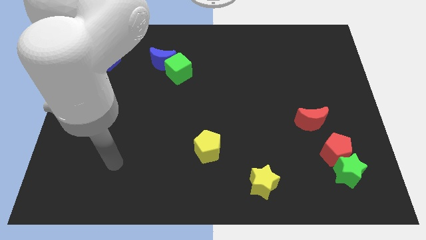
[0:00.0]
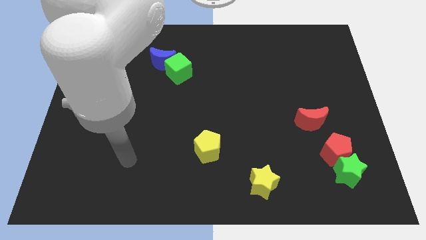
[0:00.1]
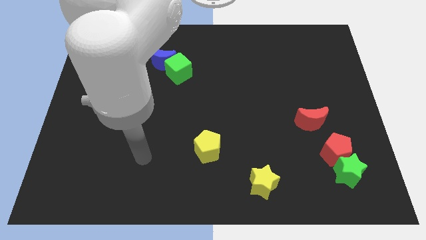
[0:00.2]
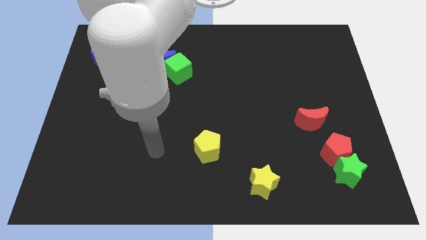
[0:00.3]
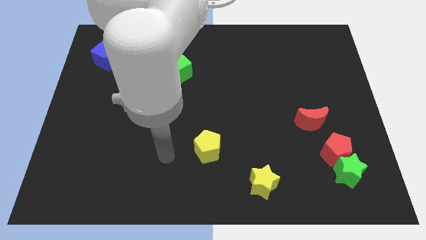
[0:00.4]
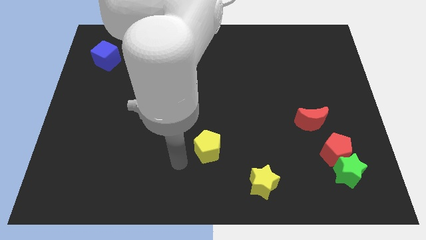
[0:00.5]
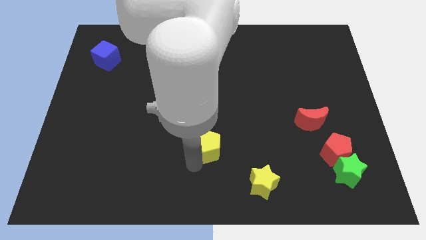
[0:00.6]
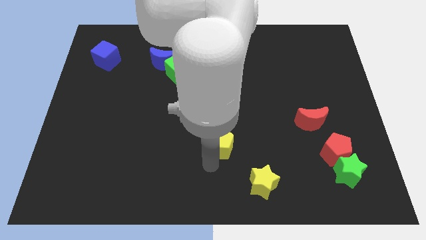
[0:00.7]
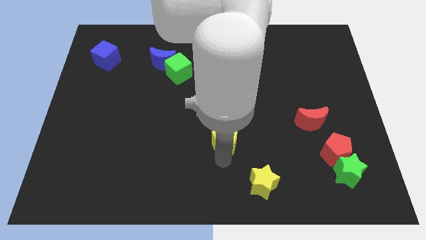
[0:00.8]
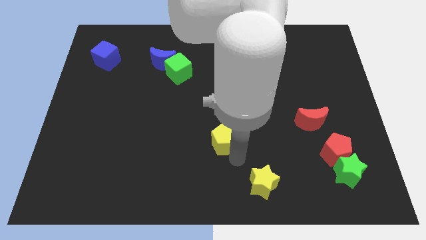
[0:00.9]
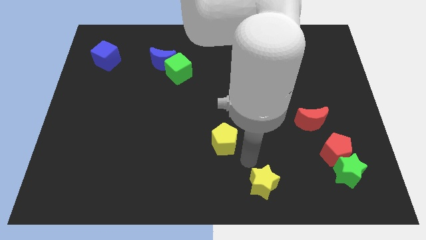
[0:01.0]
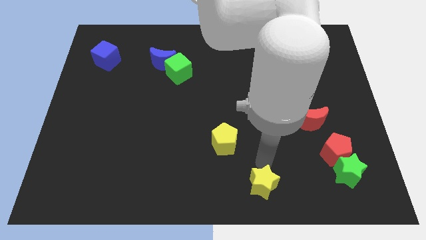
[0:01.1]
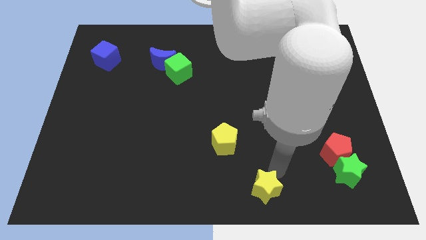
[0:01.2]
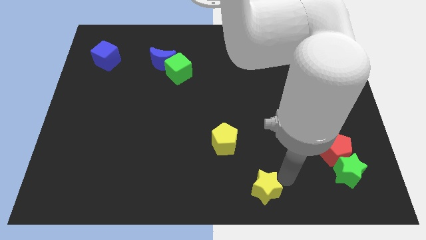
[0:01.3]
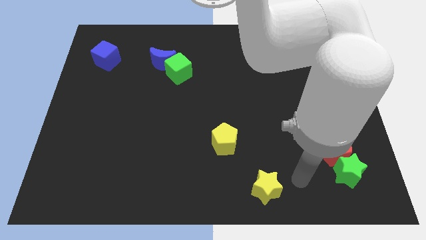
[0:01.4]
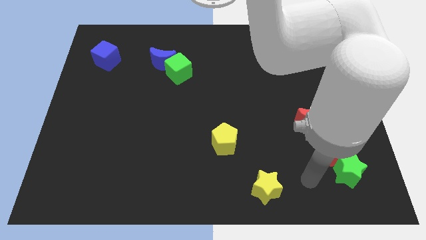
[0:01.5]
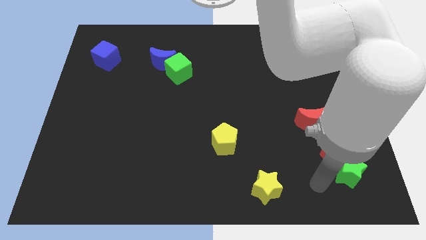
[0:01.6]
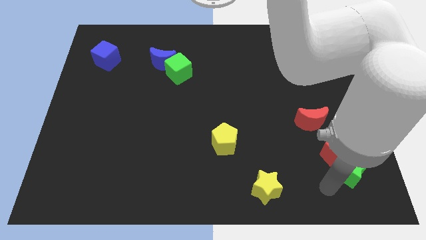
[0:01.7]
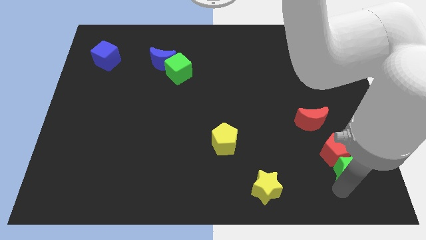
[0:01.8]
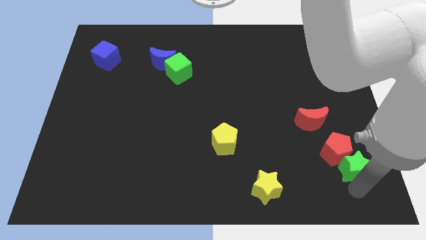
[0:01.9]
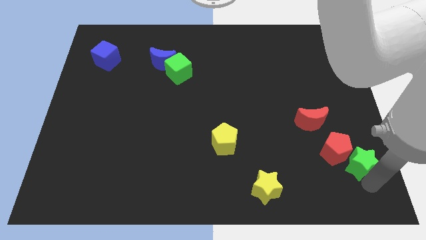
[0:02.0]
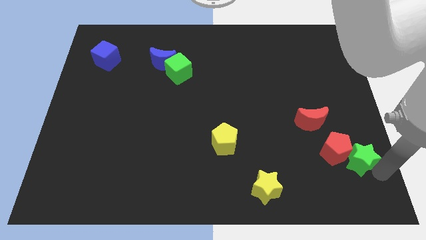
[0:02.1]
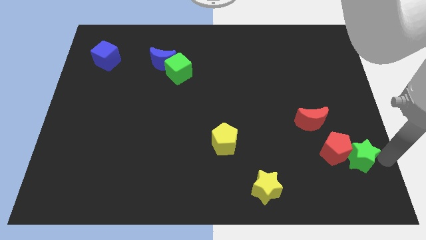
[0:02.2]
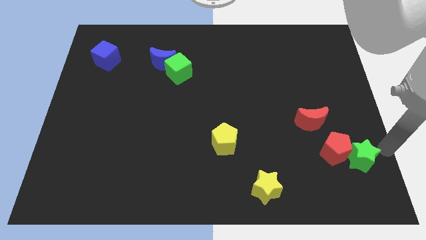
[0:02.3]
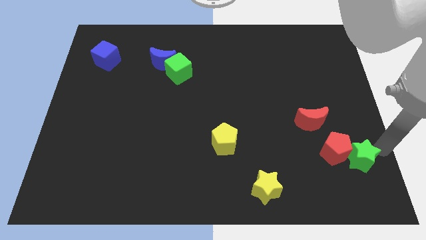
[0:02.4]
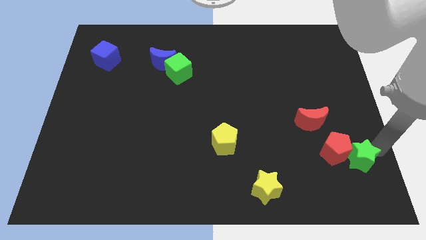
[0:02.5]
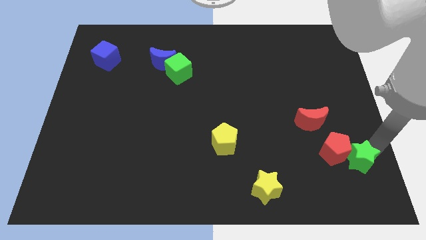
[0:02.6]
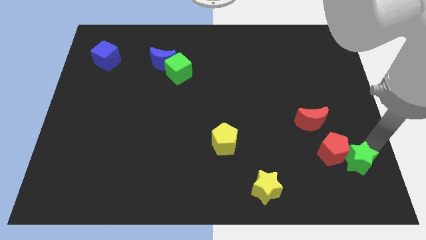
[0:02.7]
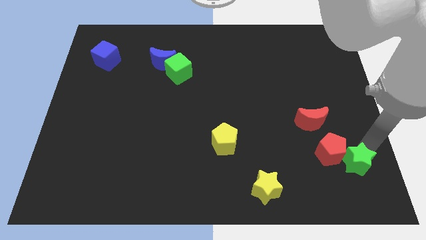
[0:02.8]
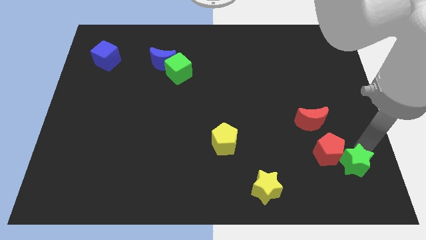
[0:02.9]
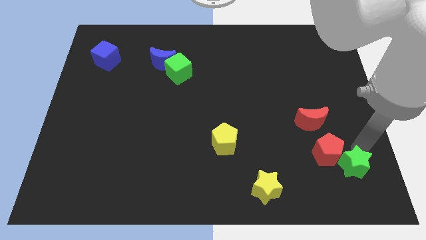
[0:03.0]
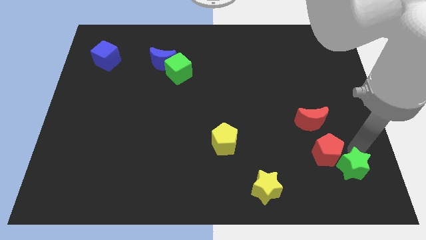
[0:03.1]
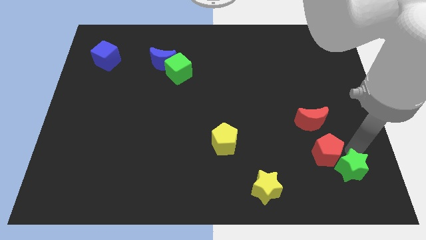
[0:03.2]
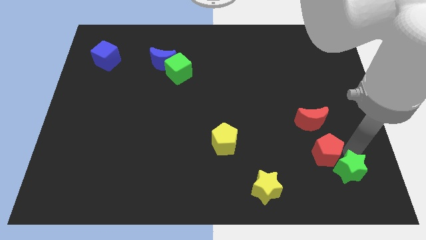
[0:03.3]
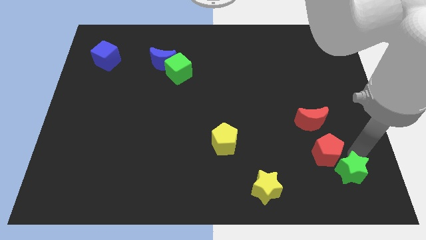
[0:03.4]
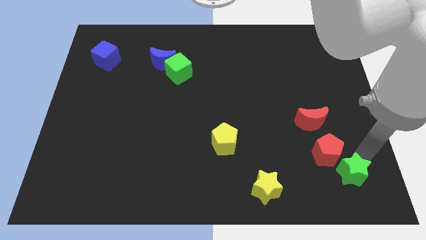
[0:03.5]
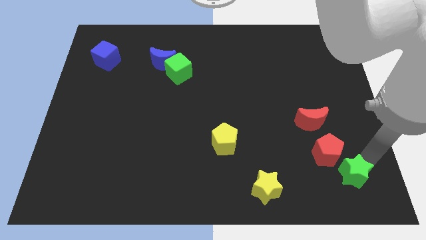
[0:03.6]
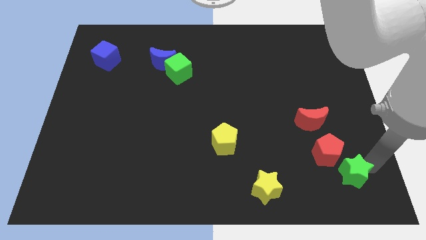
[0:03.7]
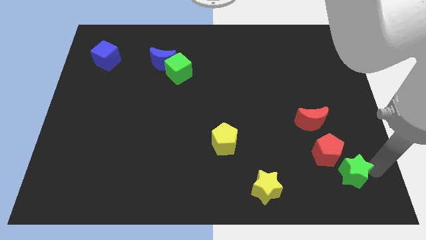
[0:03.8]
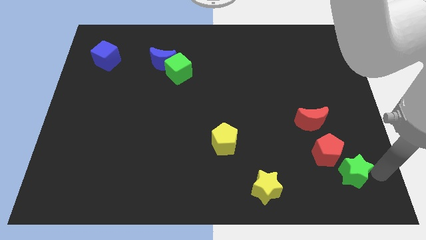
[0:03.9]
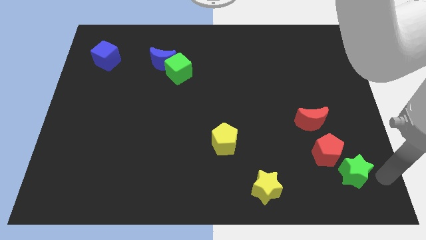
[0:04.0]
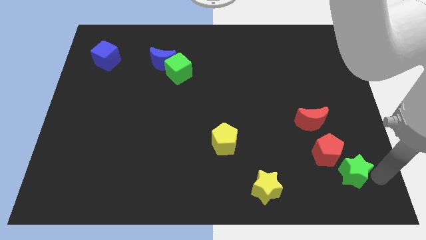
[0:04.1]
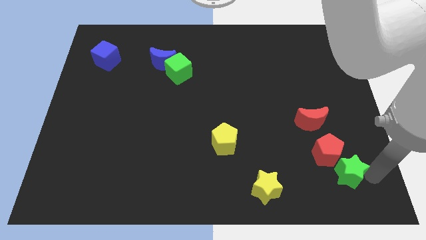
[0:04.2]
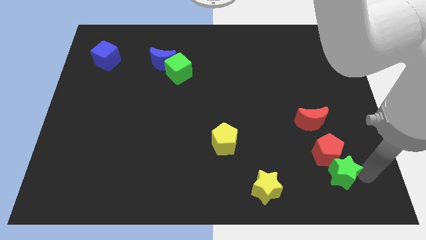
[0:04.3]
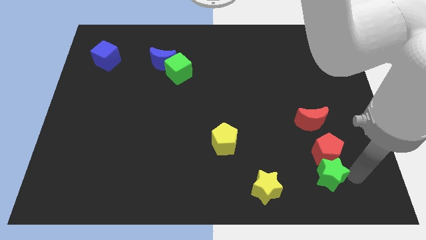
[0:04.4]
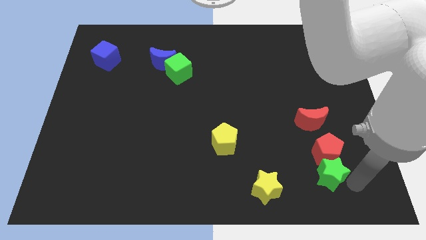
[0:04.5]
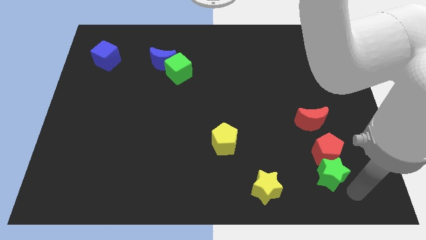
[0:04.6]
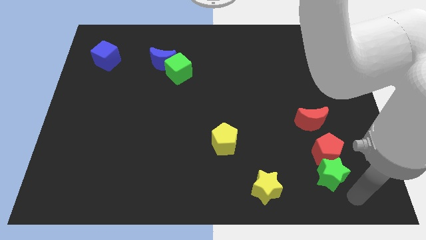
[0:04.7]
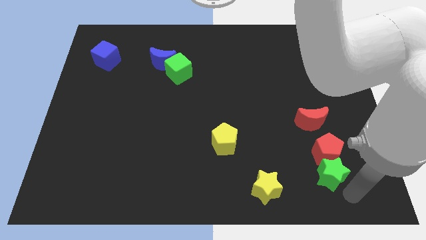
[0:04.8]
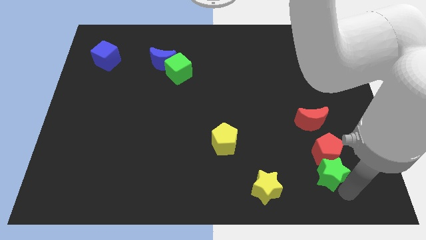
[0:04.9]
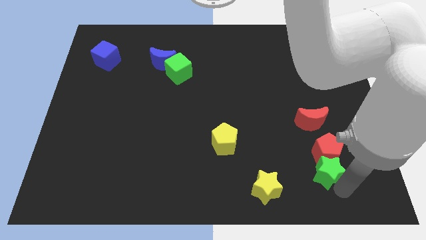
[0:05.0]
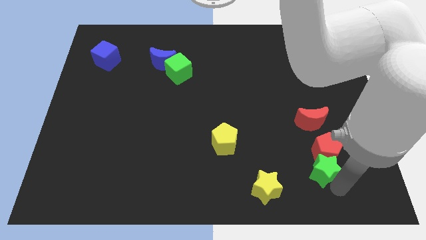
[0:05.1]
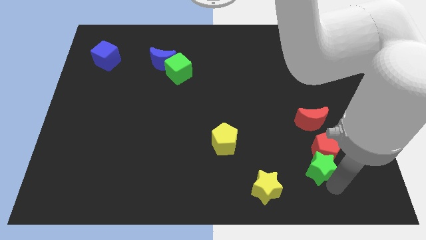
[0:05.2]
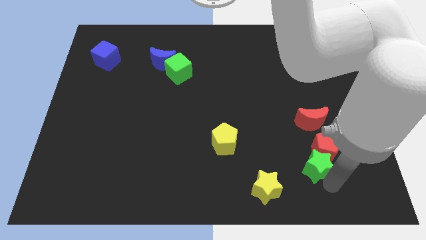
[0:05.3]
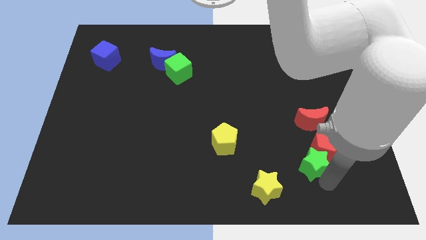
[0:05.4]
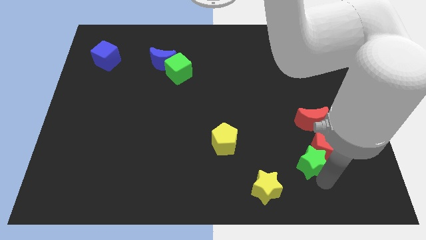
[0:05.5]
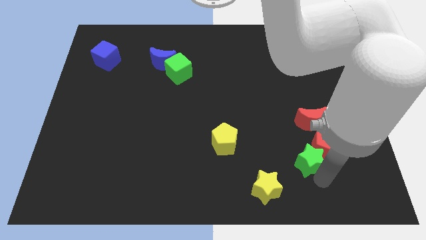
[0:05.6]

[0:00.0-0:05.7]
slightly move the green star upwards and to the left

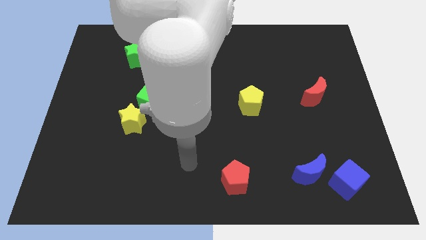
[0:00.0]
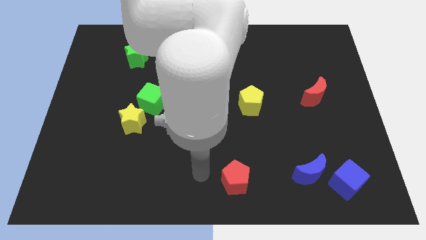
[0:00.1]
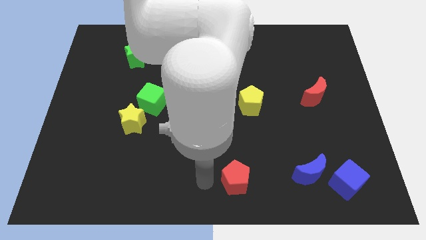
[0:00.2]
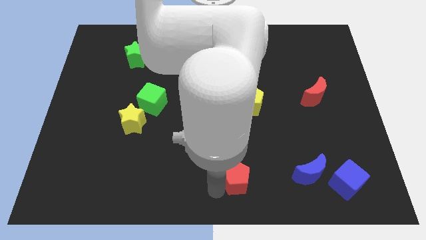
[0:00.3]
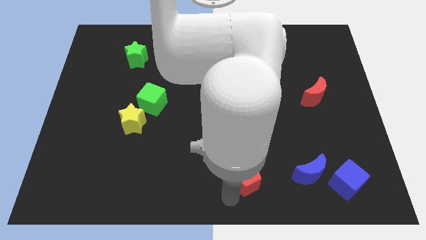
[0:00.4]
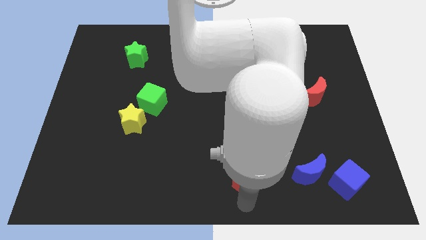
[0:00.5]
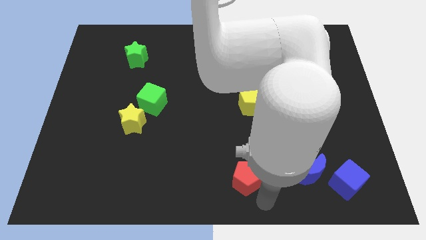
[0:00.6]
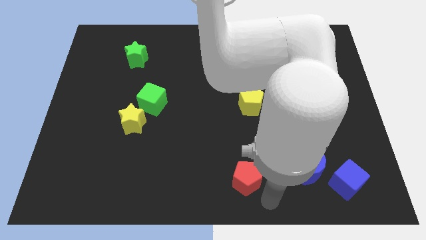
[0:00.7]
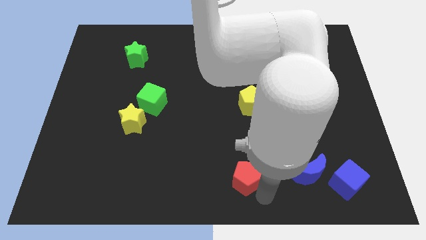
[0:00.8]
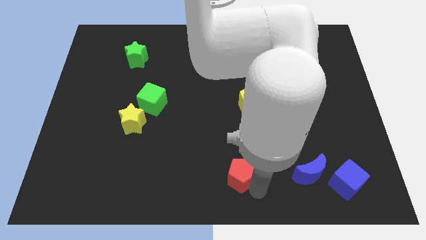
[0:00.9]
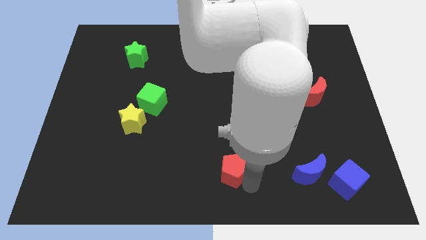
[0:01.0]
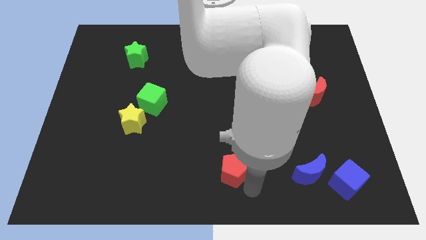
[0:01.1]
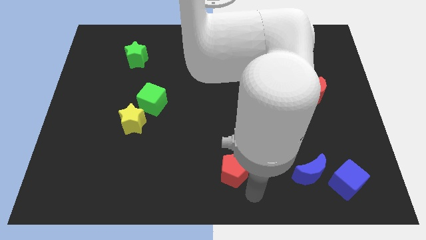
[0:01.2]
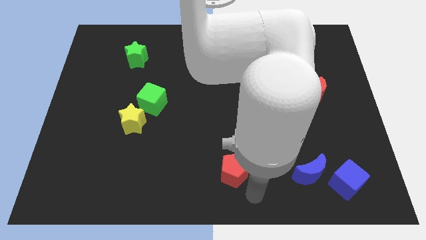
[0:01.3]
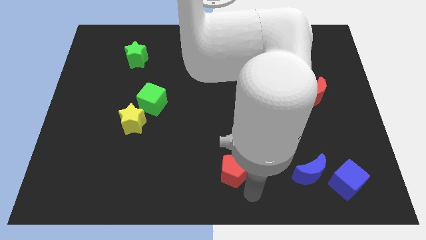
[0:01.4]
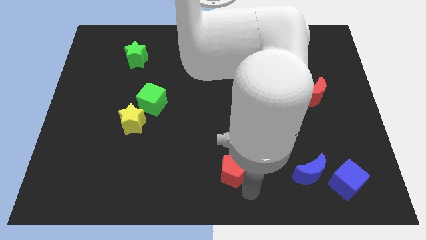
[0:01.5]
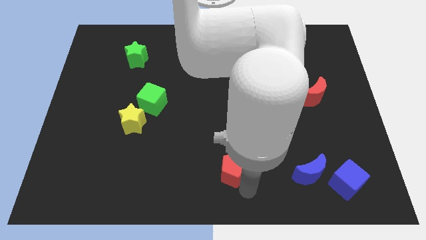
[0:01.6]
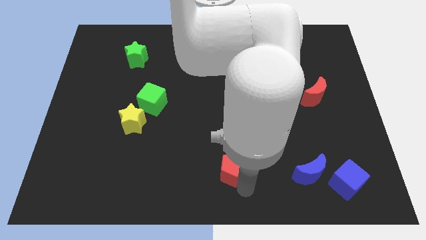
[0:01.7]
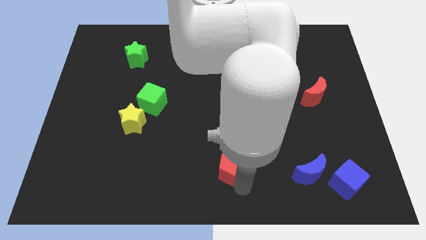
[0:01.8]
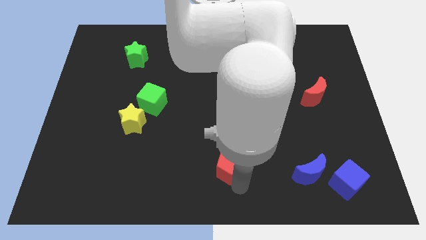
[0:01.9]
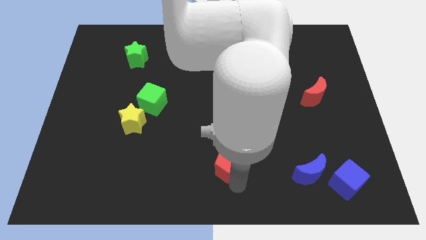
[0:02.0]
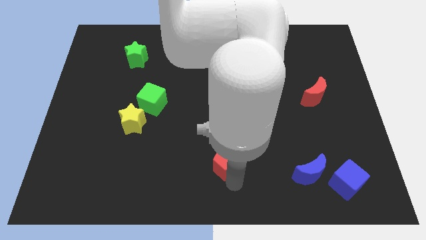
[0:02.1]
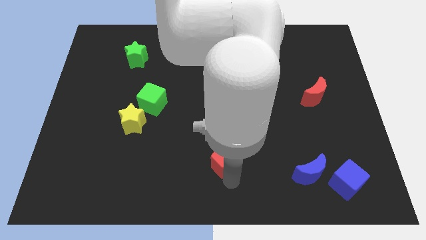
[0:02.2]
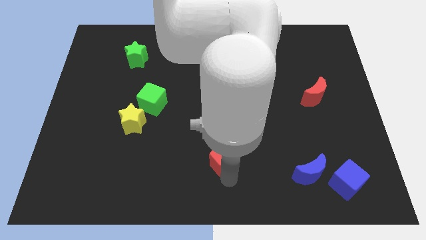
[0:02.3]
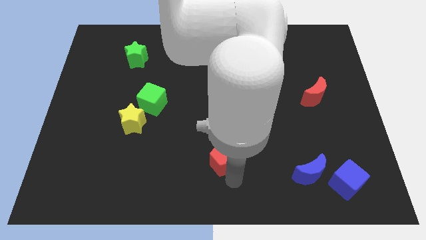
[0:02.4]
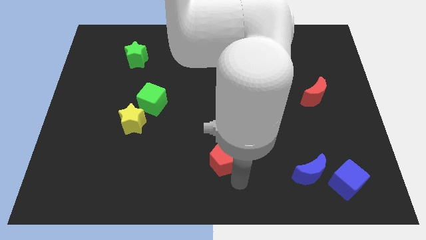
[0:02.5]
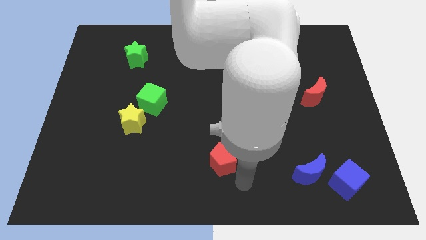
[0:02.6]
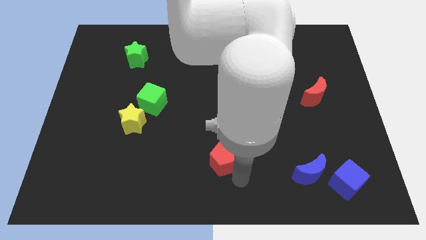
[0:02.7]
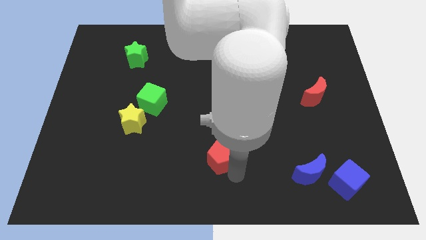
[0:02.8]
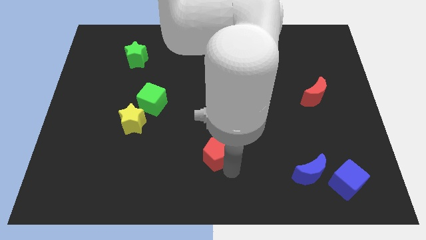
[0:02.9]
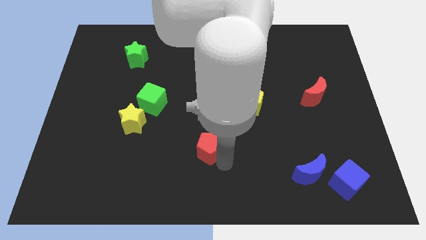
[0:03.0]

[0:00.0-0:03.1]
slide the red pentagon up and left a little
